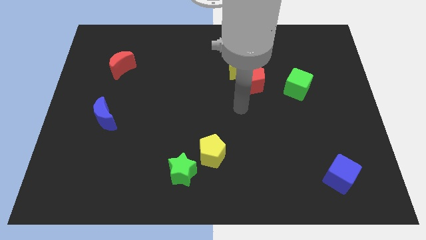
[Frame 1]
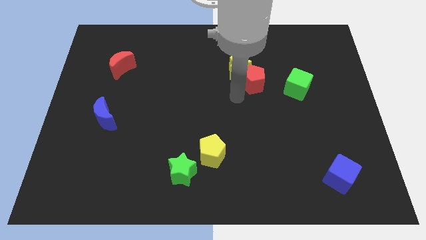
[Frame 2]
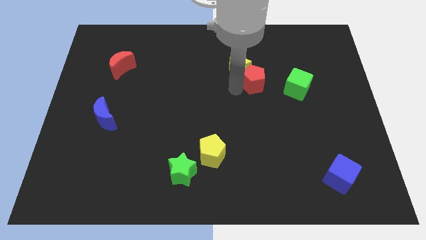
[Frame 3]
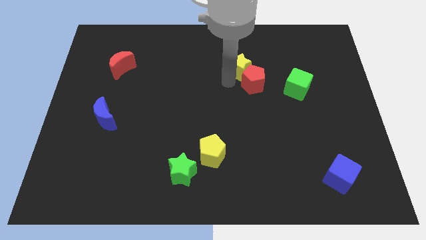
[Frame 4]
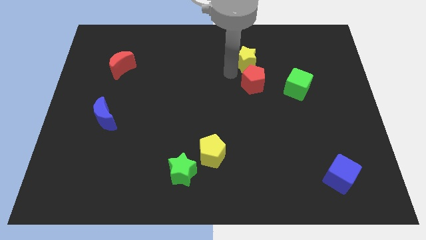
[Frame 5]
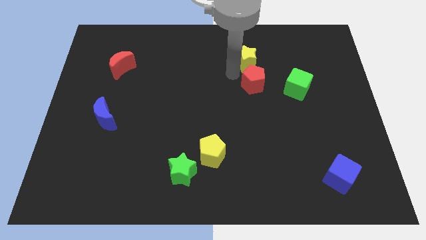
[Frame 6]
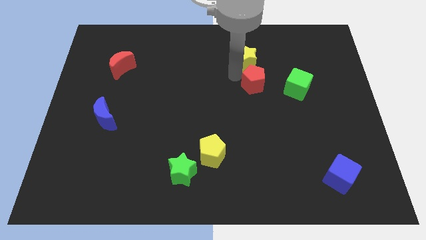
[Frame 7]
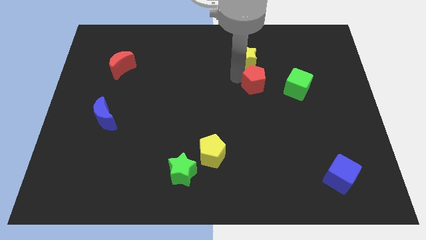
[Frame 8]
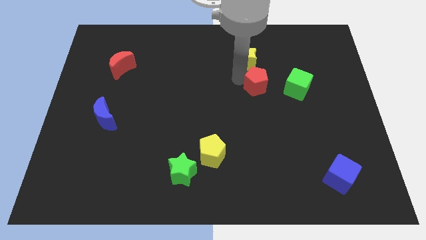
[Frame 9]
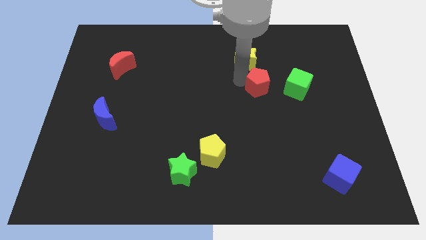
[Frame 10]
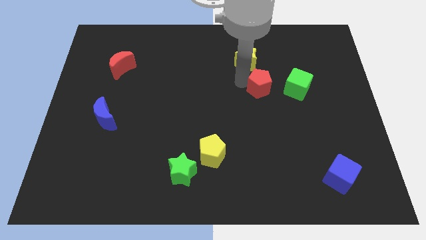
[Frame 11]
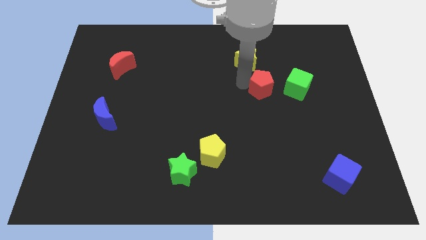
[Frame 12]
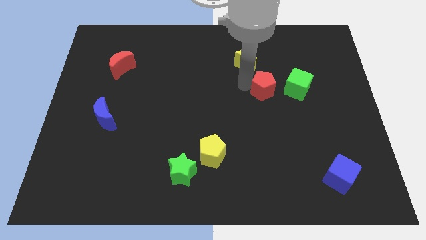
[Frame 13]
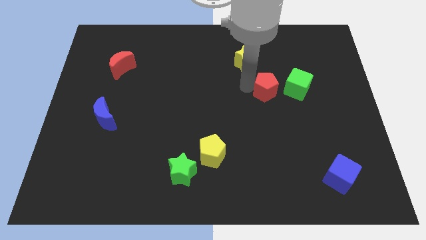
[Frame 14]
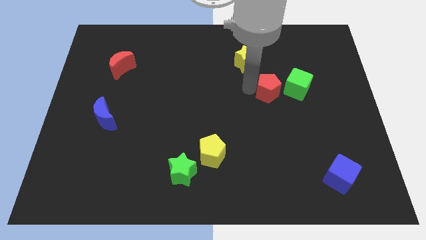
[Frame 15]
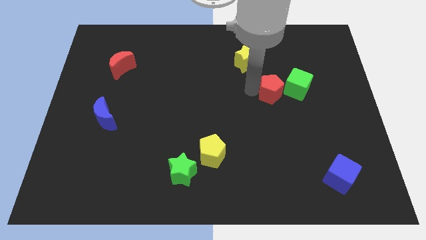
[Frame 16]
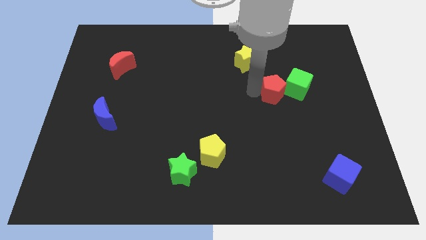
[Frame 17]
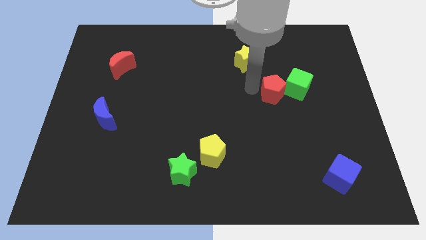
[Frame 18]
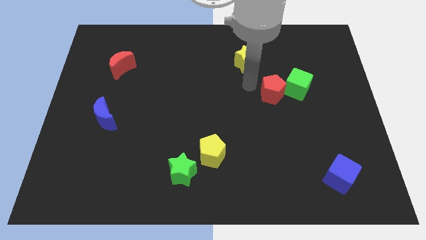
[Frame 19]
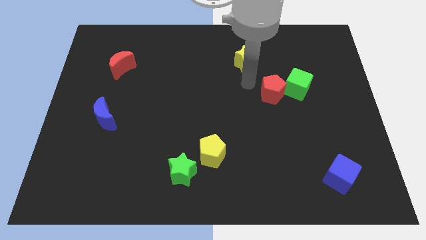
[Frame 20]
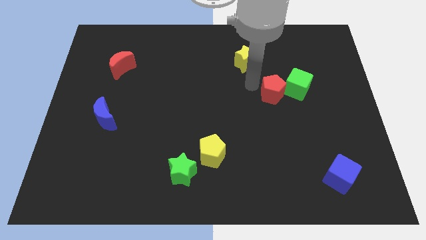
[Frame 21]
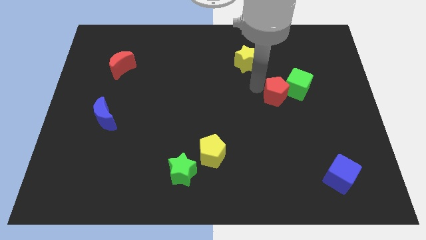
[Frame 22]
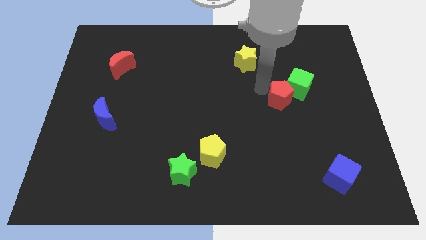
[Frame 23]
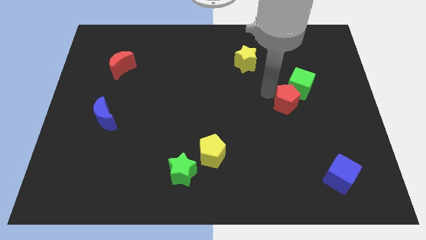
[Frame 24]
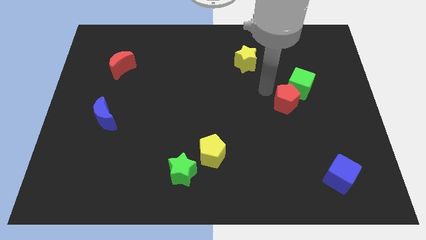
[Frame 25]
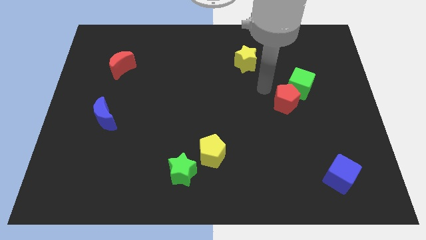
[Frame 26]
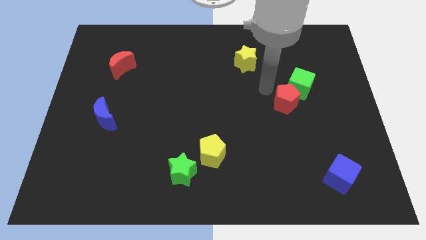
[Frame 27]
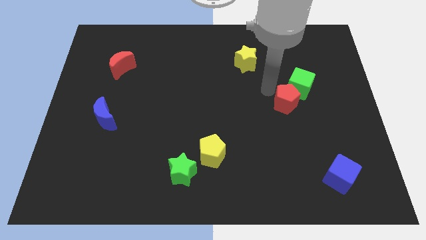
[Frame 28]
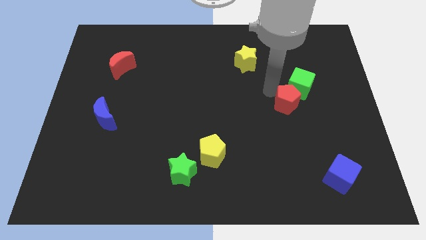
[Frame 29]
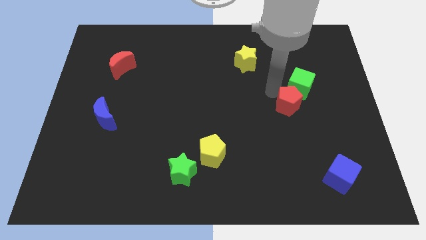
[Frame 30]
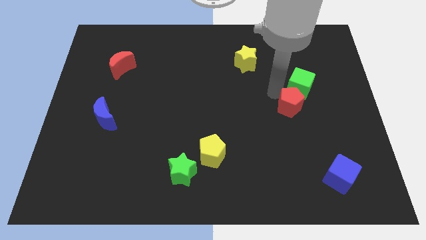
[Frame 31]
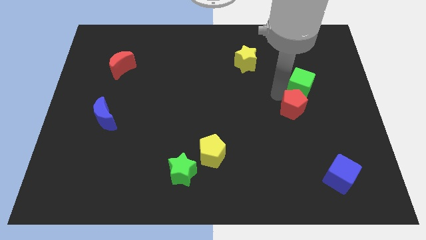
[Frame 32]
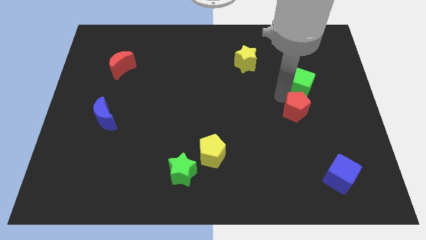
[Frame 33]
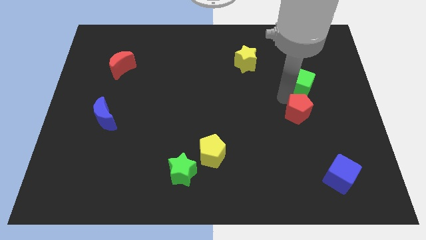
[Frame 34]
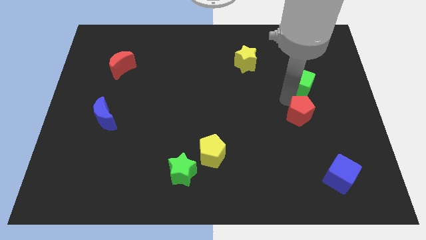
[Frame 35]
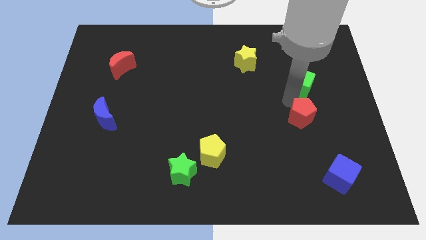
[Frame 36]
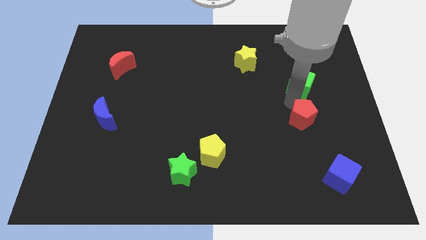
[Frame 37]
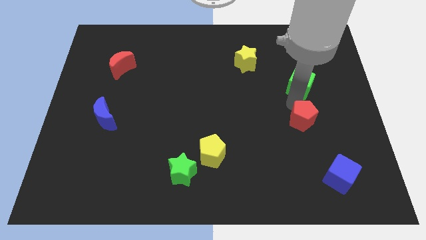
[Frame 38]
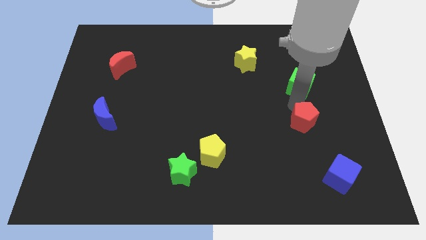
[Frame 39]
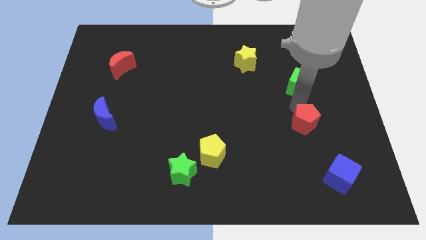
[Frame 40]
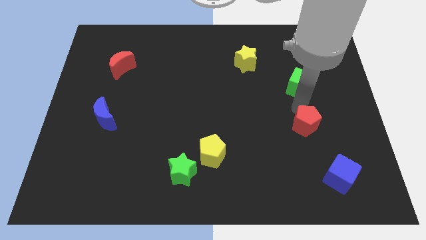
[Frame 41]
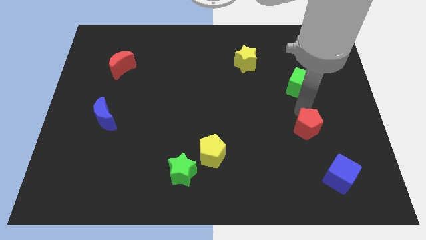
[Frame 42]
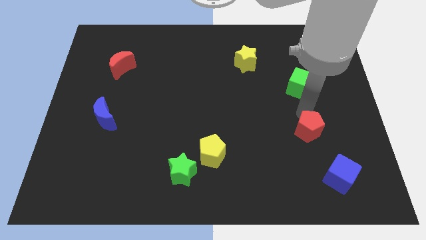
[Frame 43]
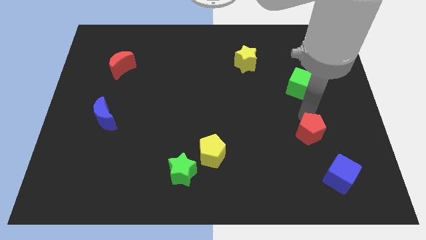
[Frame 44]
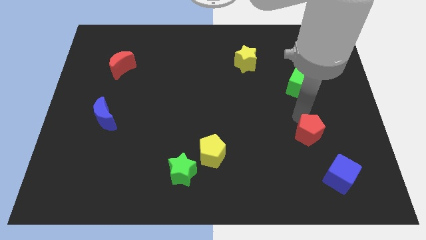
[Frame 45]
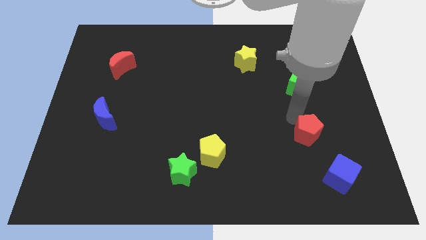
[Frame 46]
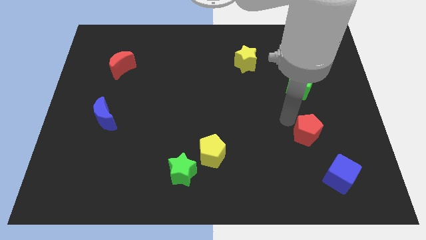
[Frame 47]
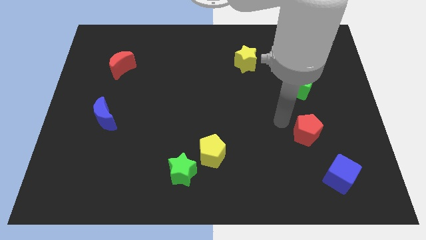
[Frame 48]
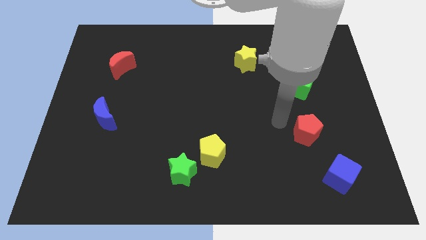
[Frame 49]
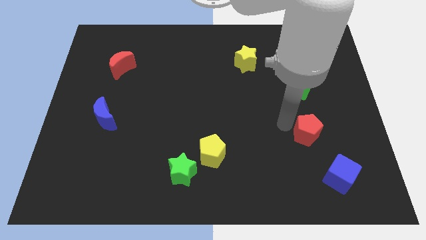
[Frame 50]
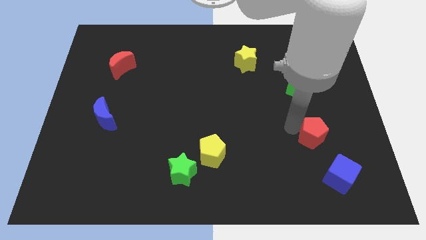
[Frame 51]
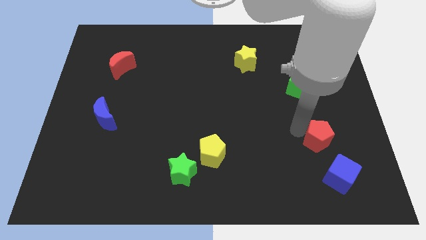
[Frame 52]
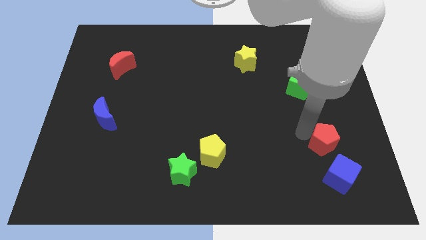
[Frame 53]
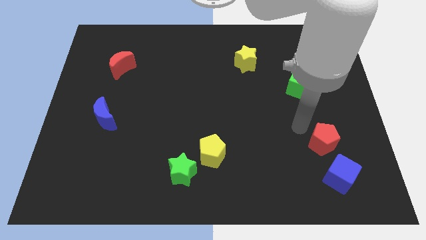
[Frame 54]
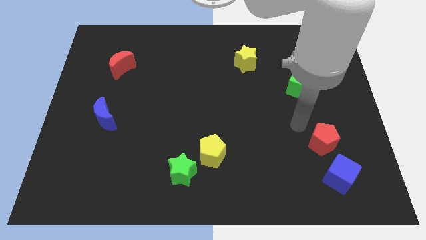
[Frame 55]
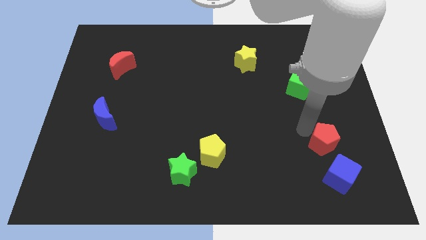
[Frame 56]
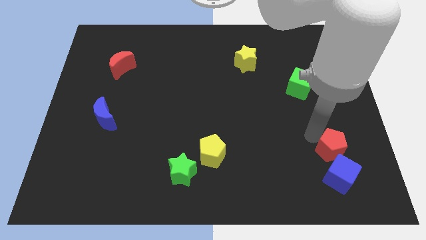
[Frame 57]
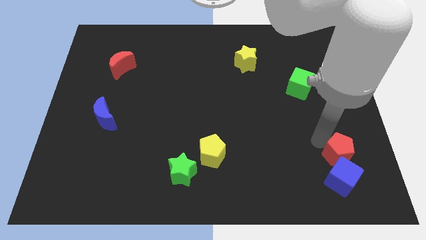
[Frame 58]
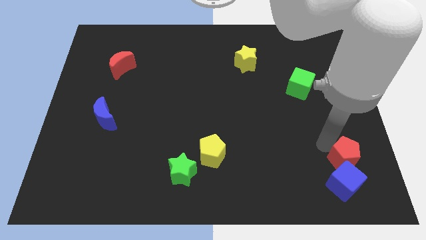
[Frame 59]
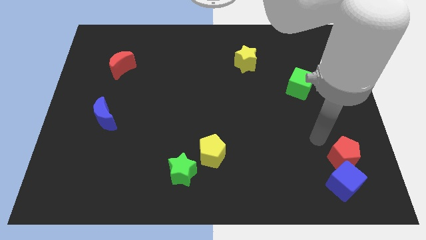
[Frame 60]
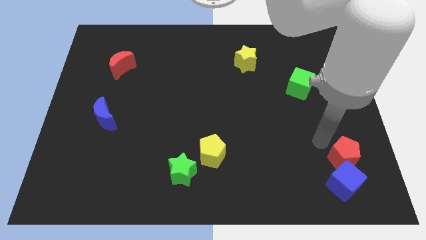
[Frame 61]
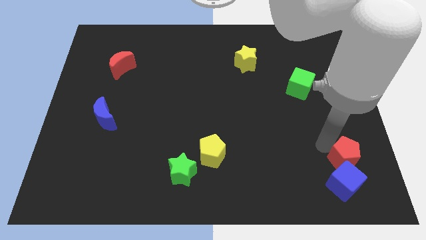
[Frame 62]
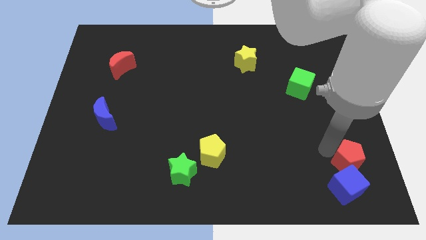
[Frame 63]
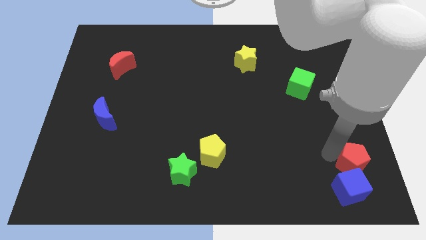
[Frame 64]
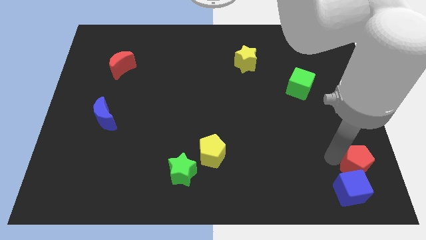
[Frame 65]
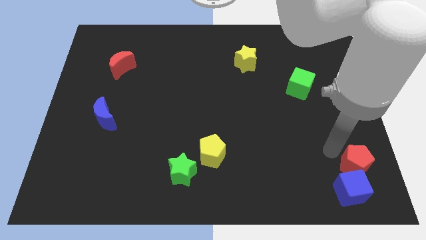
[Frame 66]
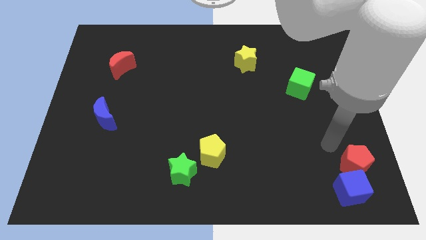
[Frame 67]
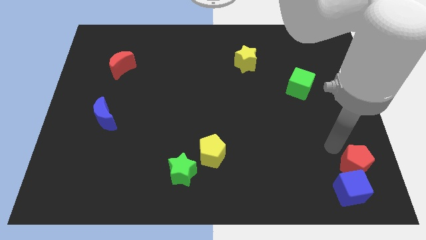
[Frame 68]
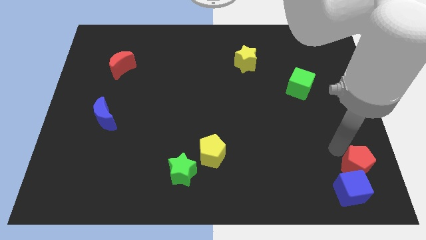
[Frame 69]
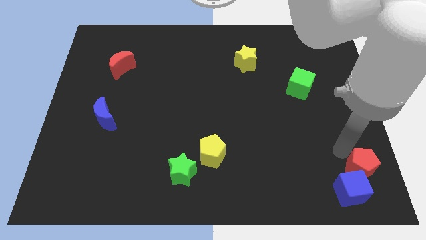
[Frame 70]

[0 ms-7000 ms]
slide the red pentagon to the lower right corner
